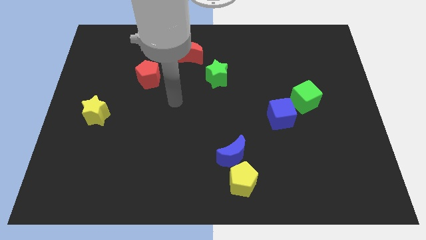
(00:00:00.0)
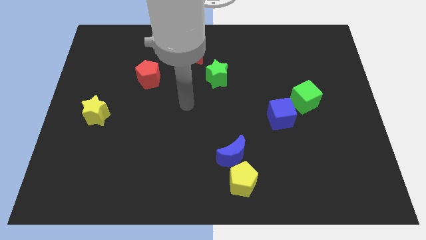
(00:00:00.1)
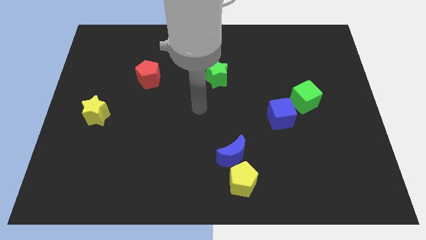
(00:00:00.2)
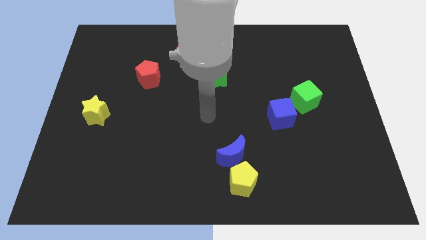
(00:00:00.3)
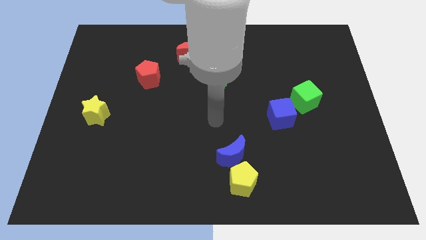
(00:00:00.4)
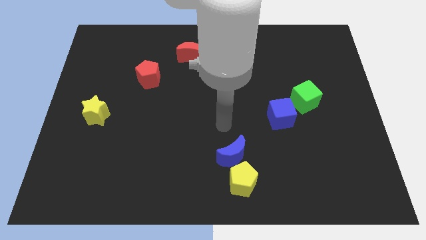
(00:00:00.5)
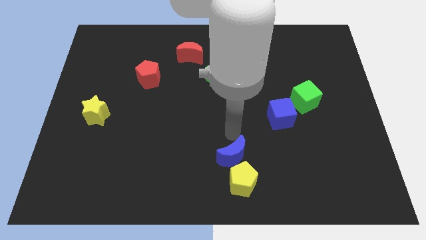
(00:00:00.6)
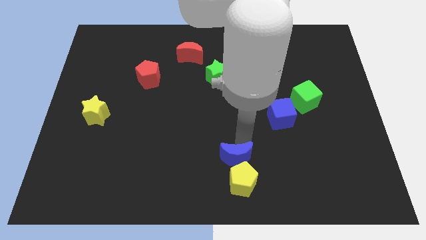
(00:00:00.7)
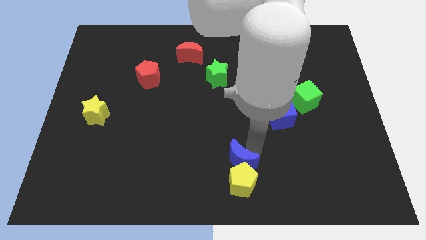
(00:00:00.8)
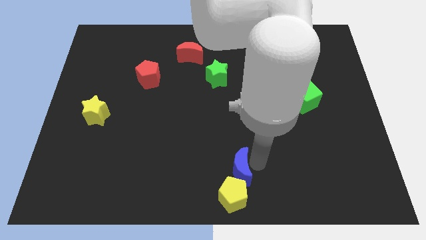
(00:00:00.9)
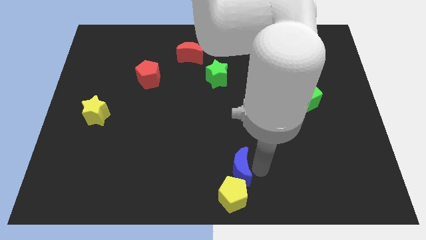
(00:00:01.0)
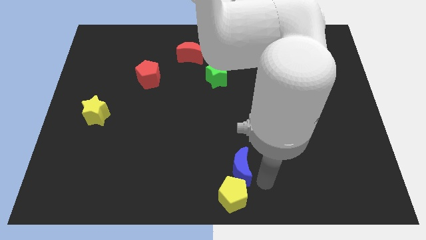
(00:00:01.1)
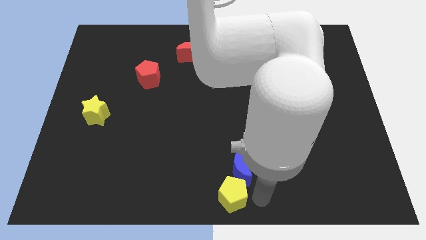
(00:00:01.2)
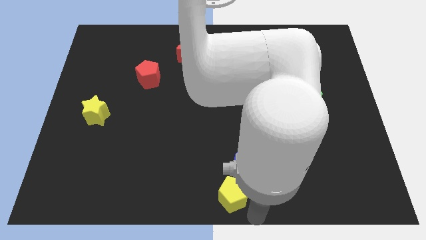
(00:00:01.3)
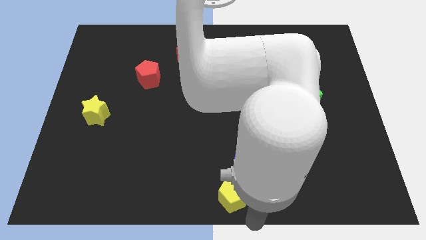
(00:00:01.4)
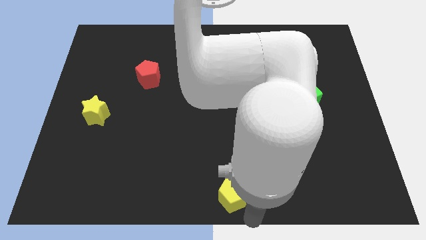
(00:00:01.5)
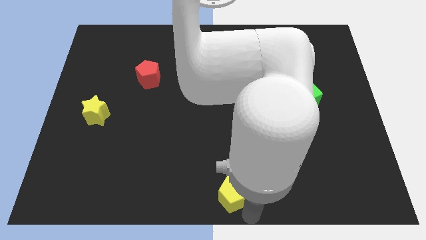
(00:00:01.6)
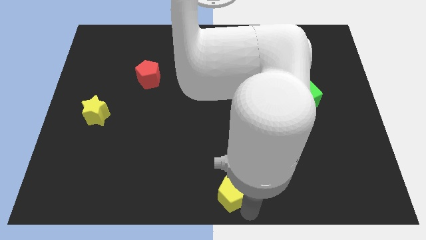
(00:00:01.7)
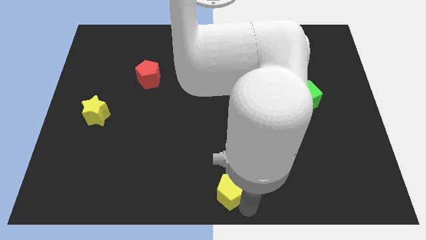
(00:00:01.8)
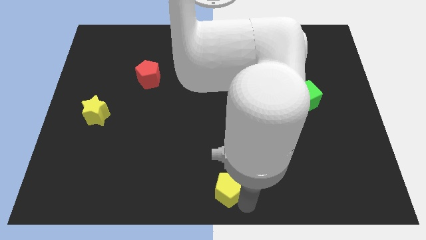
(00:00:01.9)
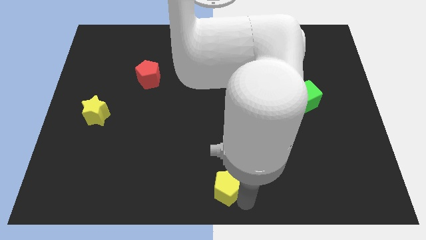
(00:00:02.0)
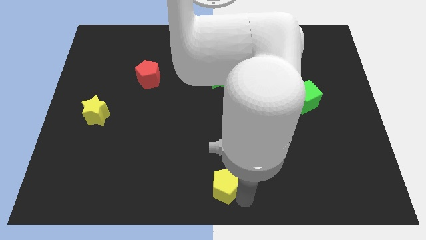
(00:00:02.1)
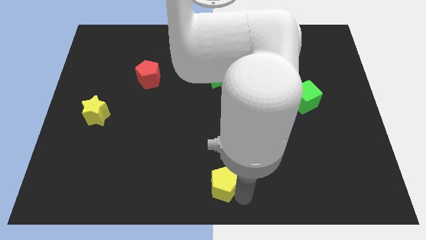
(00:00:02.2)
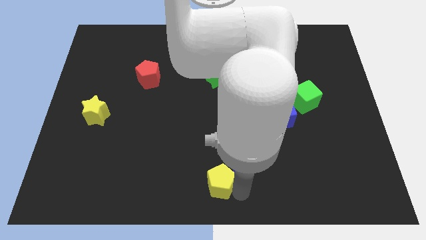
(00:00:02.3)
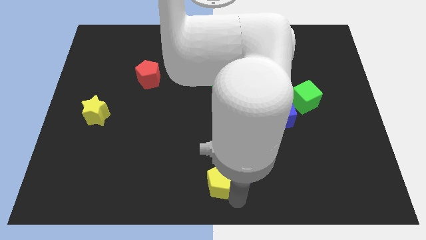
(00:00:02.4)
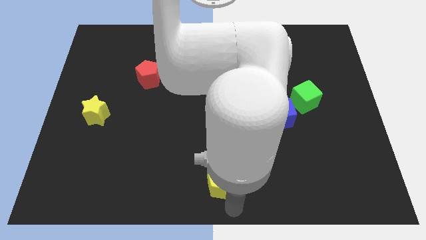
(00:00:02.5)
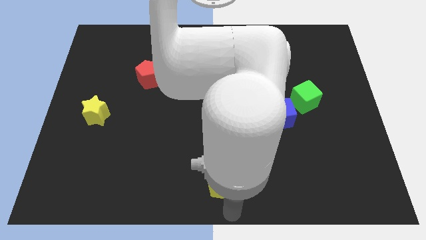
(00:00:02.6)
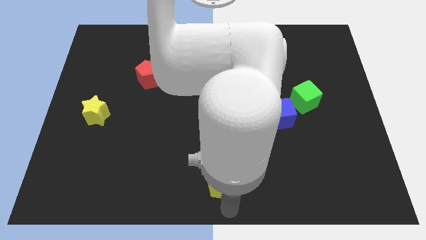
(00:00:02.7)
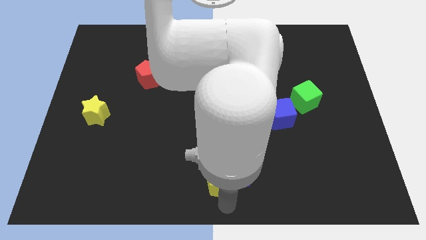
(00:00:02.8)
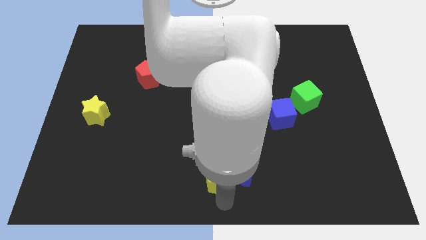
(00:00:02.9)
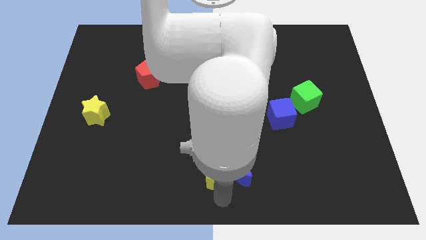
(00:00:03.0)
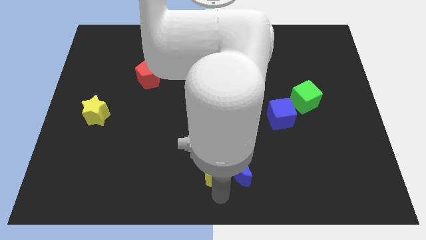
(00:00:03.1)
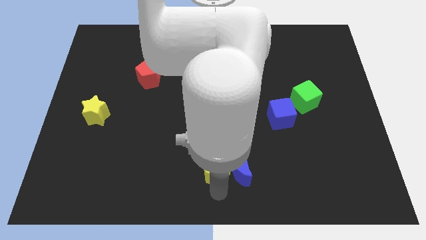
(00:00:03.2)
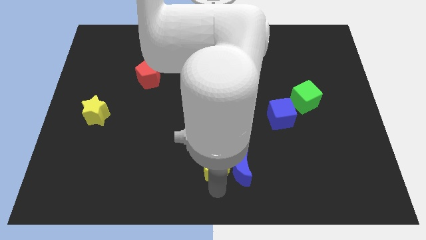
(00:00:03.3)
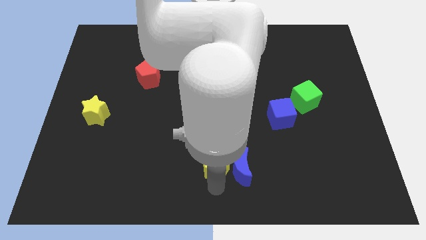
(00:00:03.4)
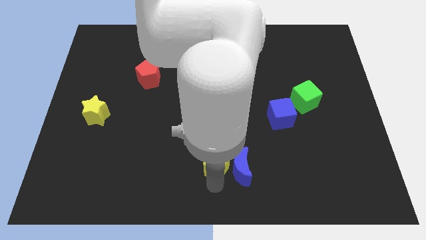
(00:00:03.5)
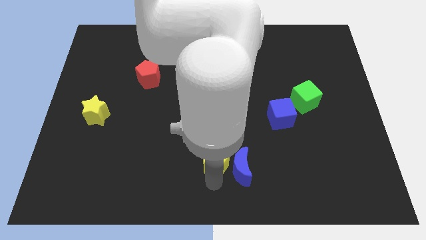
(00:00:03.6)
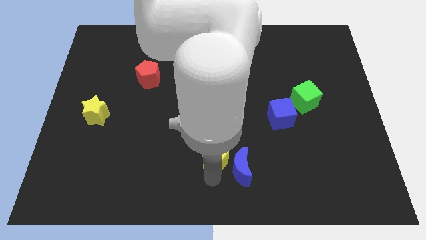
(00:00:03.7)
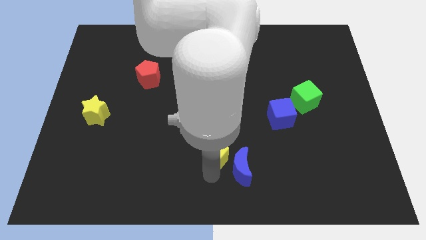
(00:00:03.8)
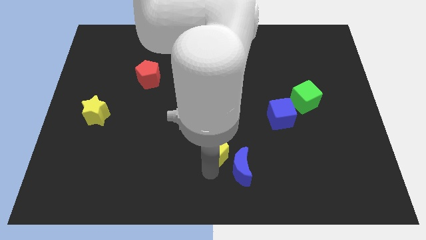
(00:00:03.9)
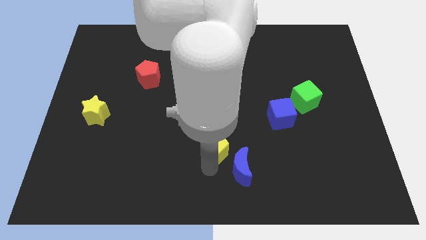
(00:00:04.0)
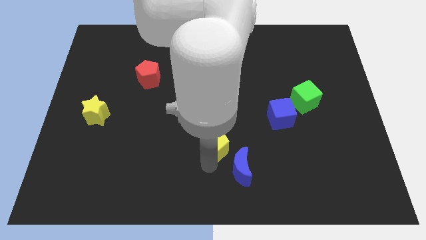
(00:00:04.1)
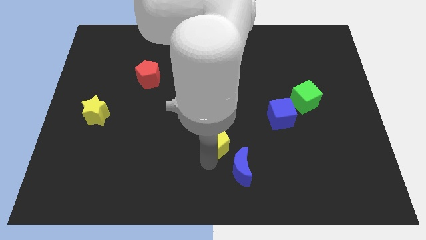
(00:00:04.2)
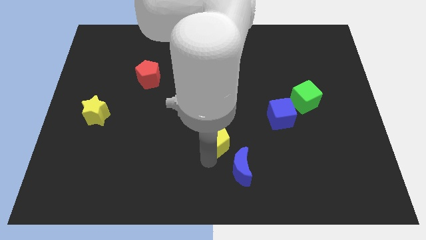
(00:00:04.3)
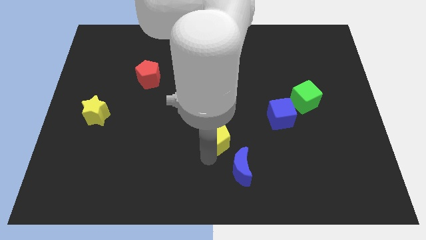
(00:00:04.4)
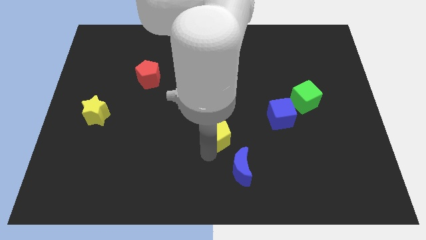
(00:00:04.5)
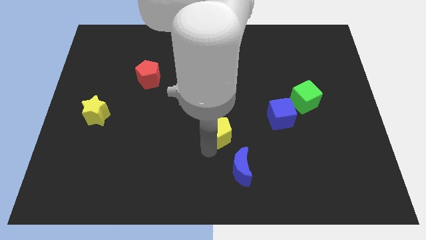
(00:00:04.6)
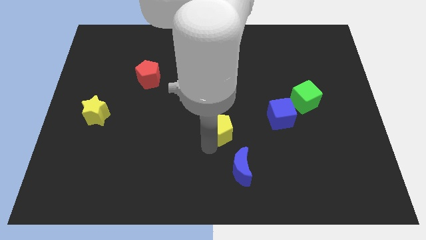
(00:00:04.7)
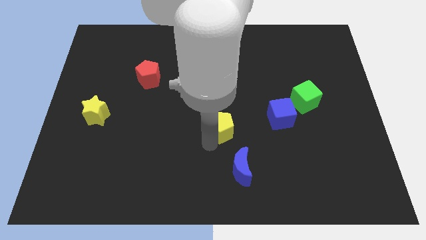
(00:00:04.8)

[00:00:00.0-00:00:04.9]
slide the yellow pentagon below the green star

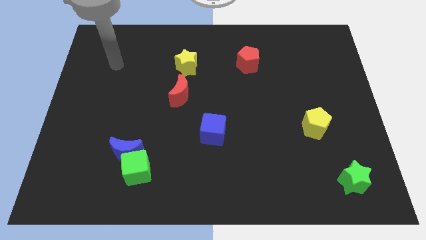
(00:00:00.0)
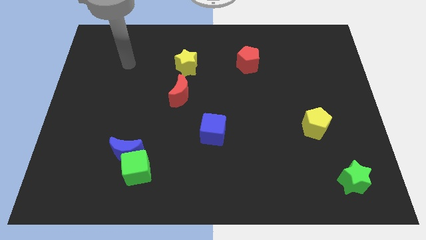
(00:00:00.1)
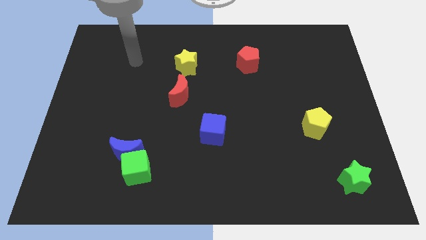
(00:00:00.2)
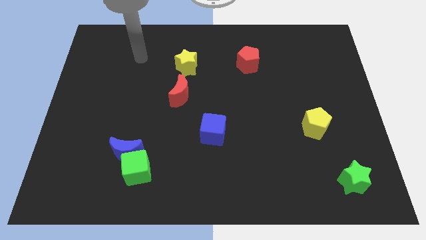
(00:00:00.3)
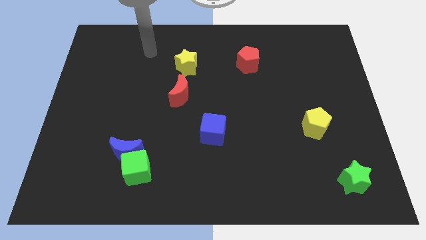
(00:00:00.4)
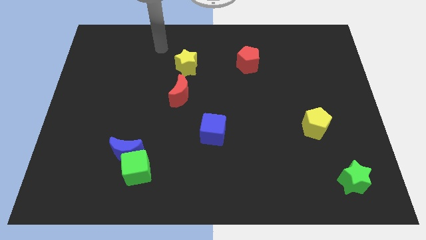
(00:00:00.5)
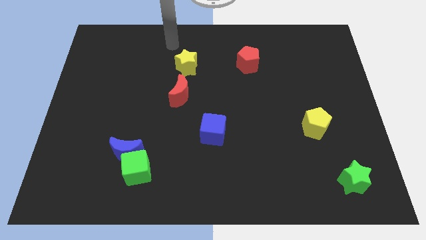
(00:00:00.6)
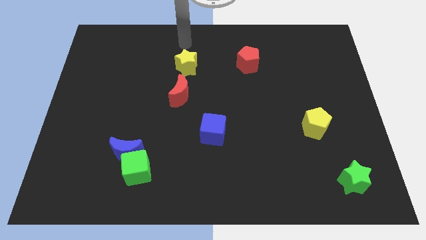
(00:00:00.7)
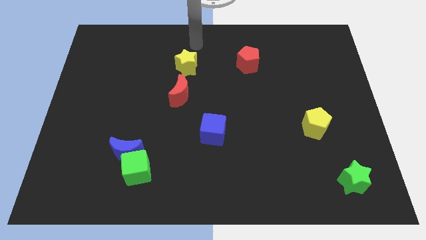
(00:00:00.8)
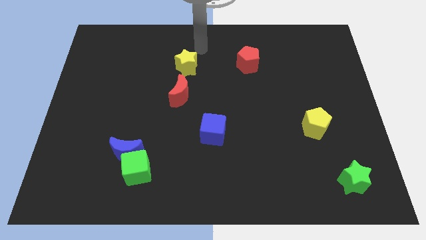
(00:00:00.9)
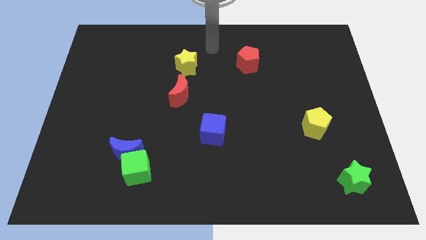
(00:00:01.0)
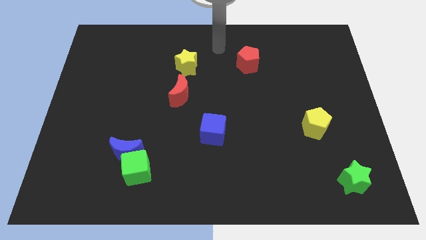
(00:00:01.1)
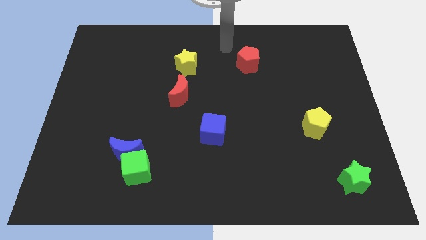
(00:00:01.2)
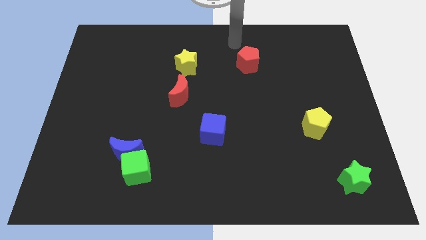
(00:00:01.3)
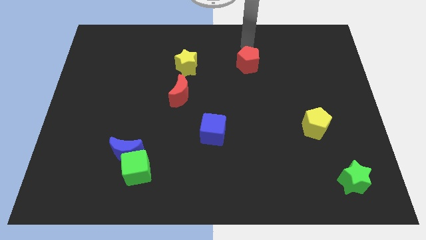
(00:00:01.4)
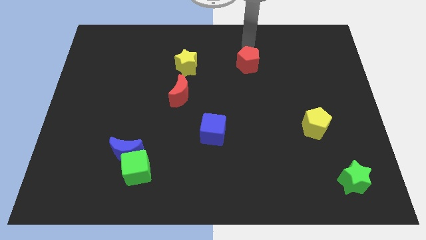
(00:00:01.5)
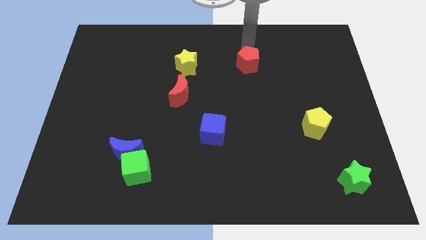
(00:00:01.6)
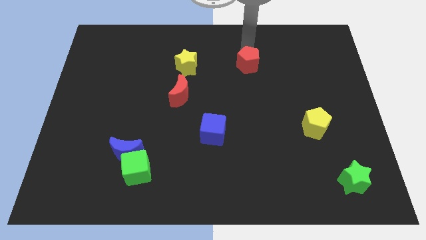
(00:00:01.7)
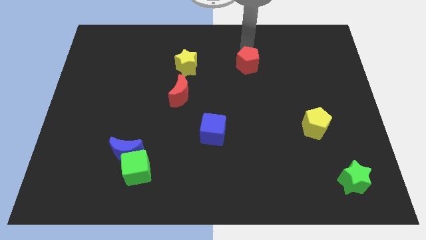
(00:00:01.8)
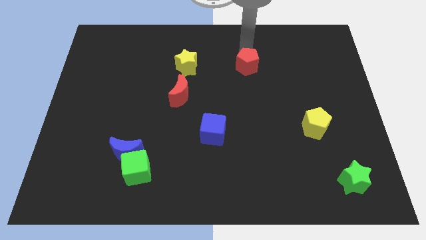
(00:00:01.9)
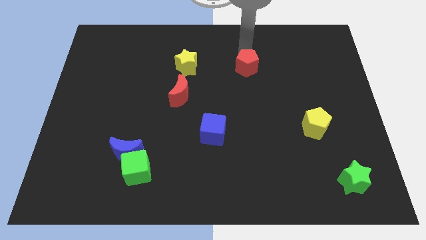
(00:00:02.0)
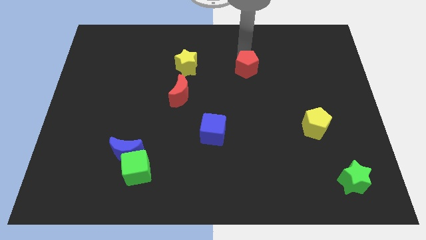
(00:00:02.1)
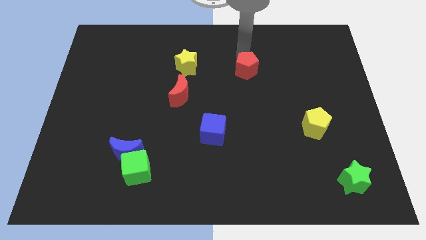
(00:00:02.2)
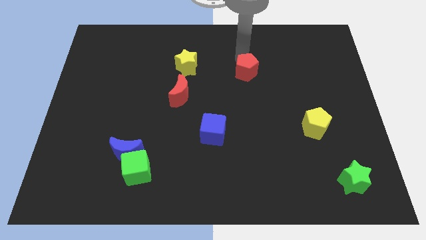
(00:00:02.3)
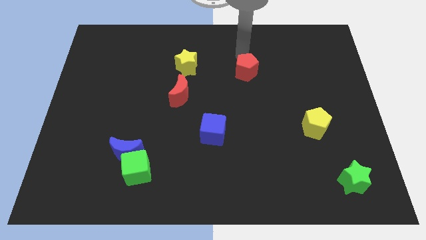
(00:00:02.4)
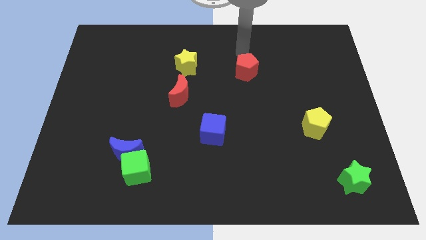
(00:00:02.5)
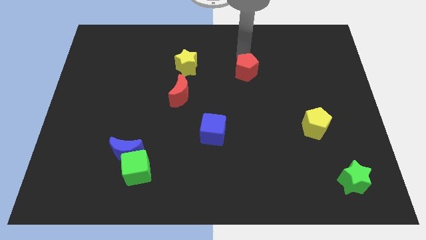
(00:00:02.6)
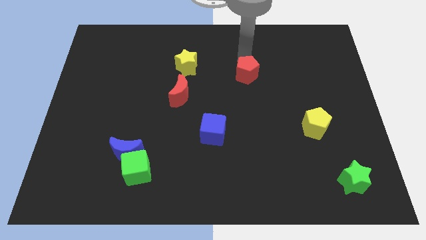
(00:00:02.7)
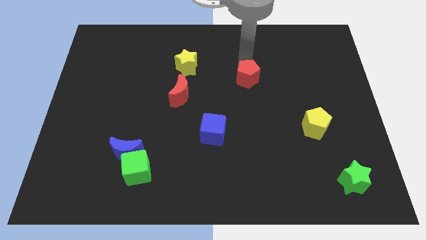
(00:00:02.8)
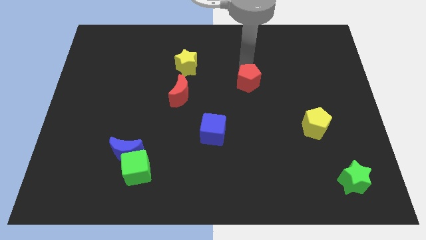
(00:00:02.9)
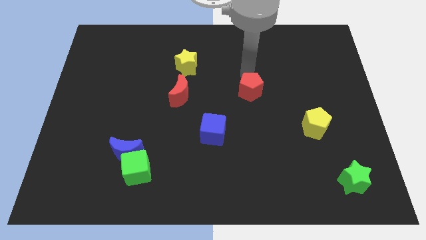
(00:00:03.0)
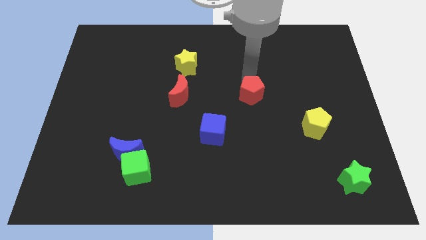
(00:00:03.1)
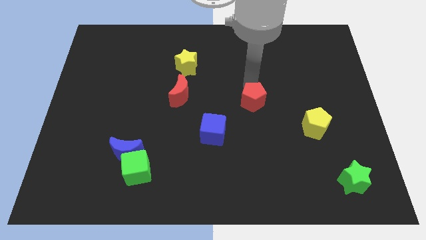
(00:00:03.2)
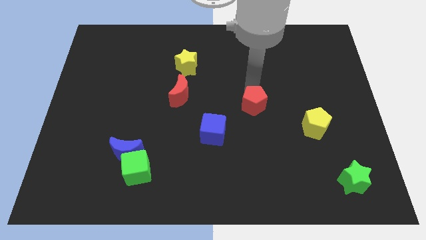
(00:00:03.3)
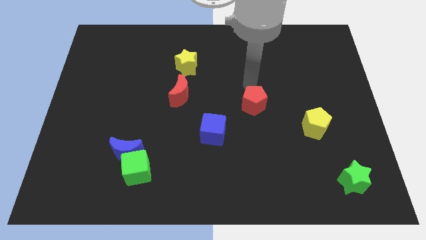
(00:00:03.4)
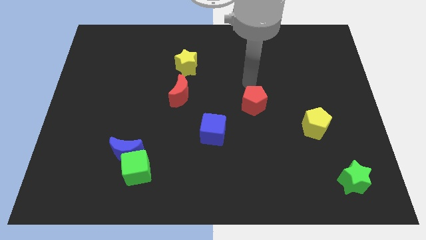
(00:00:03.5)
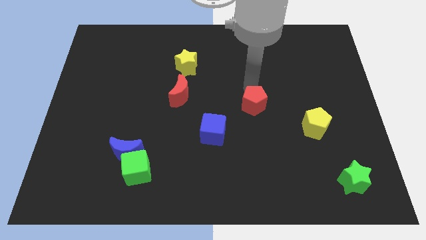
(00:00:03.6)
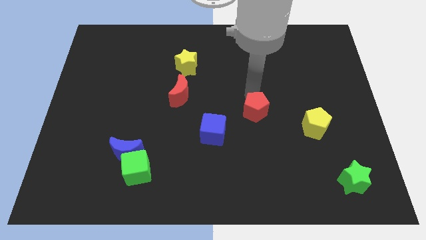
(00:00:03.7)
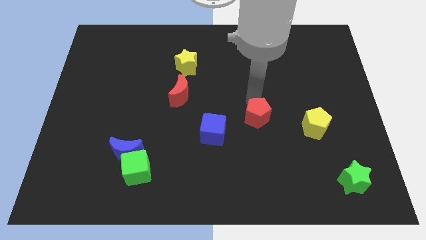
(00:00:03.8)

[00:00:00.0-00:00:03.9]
slide the red pentagon right of the blue cube
